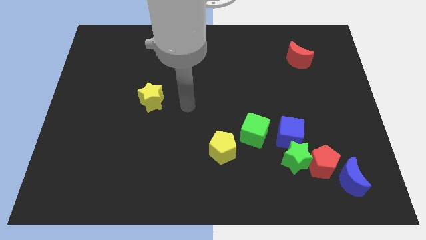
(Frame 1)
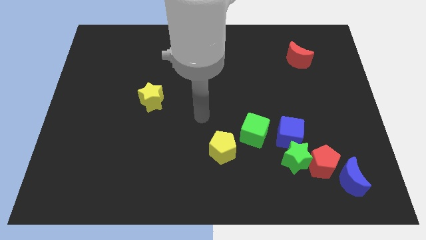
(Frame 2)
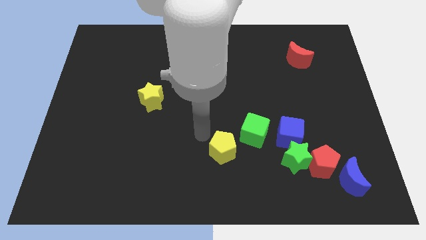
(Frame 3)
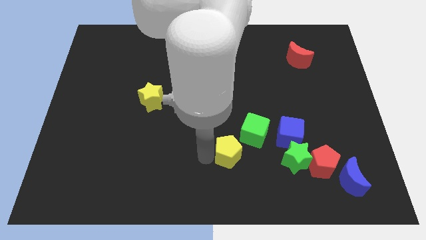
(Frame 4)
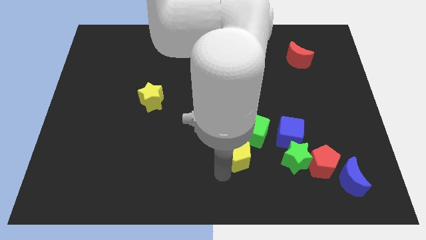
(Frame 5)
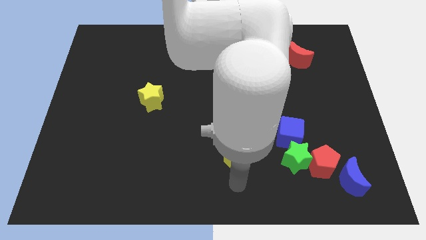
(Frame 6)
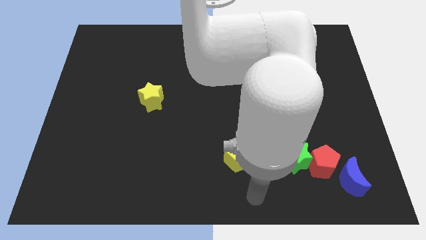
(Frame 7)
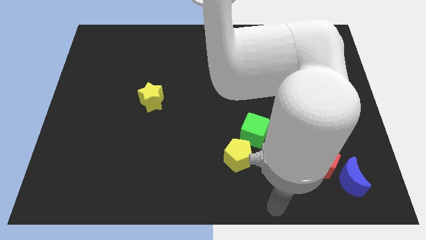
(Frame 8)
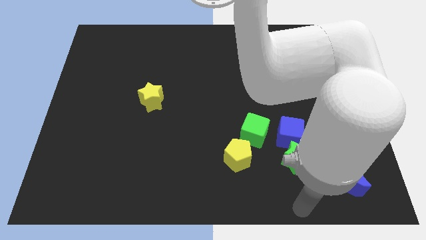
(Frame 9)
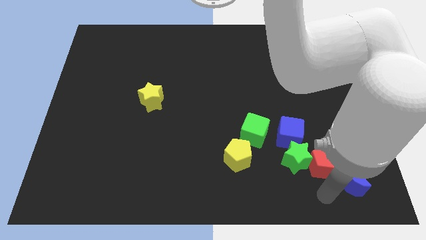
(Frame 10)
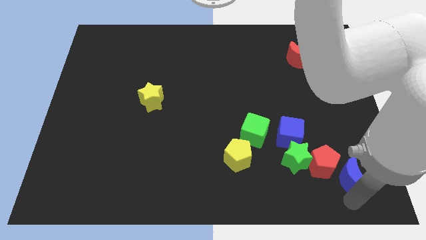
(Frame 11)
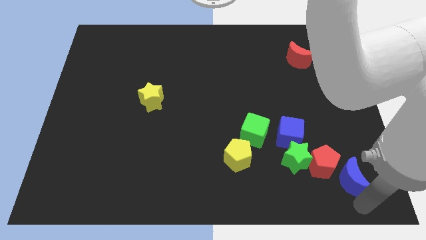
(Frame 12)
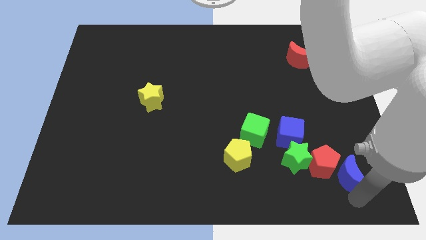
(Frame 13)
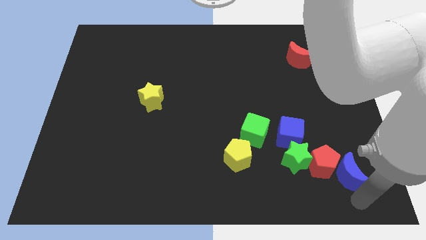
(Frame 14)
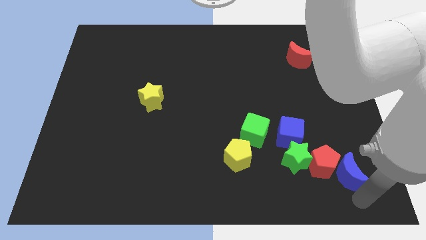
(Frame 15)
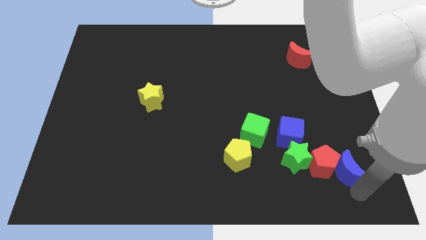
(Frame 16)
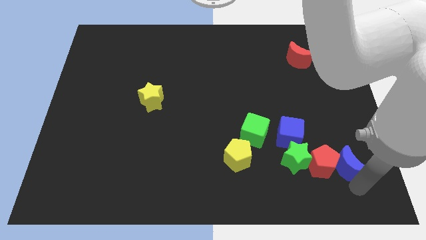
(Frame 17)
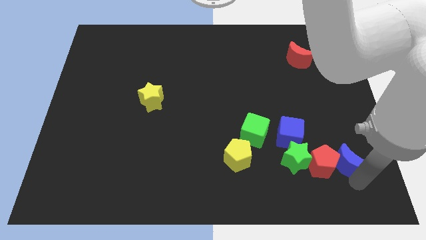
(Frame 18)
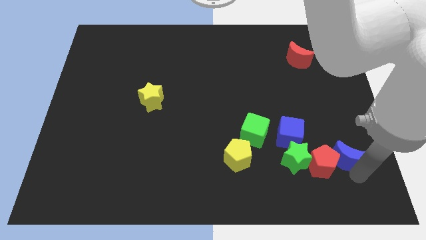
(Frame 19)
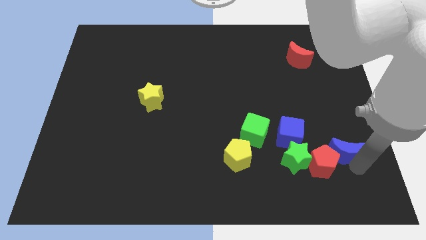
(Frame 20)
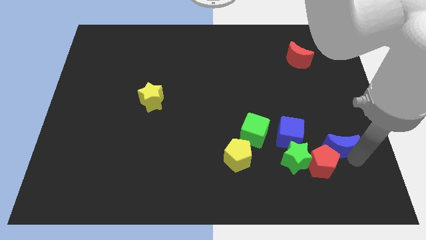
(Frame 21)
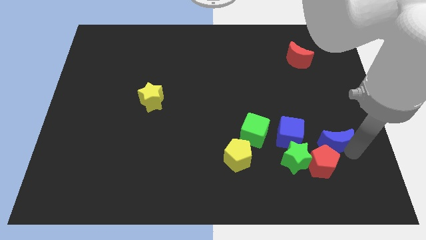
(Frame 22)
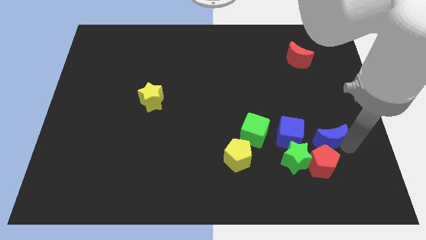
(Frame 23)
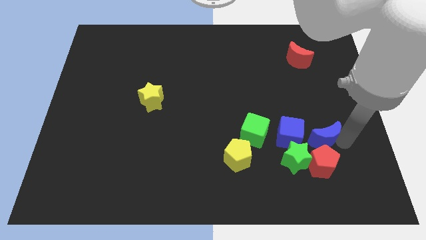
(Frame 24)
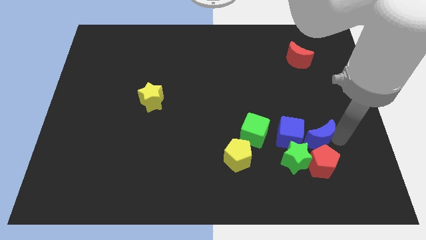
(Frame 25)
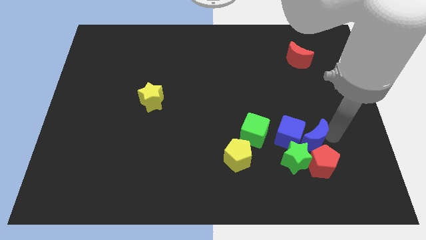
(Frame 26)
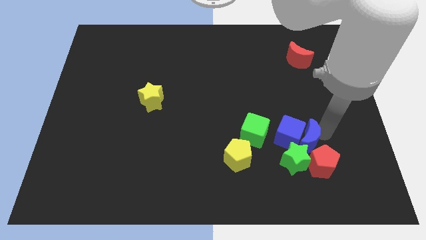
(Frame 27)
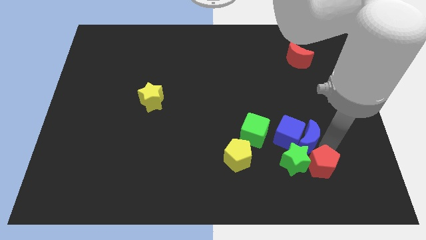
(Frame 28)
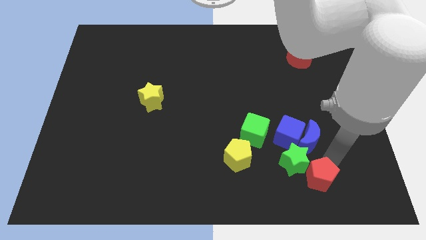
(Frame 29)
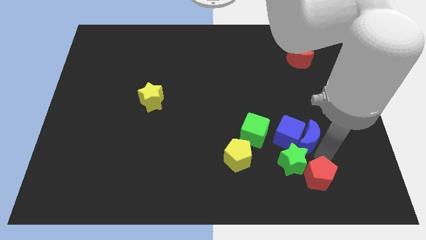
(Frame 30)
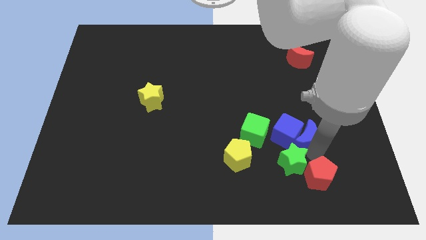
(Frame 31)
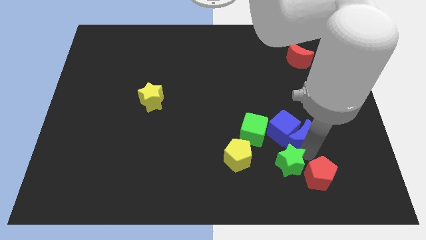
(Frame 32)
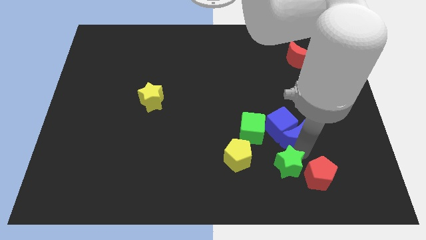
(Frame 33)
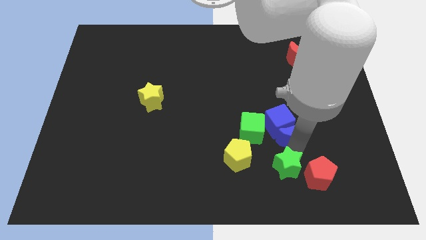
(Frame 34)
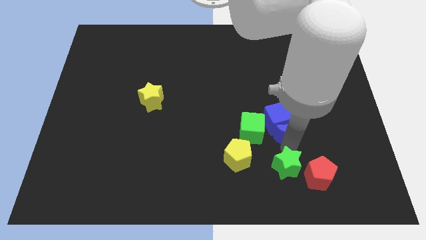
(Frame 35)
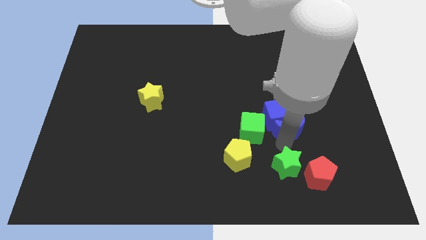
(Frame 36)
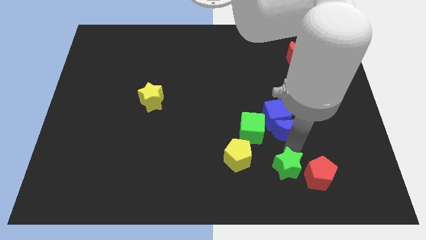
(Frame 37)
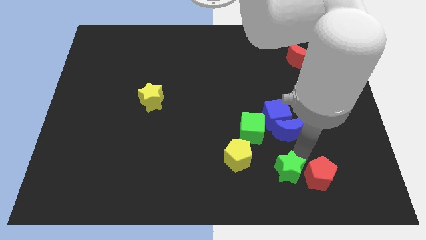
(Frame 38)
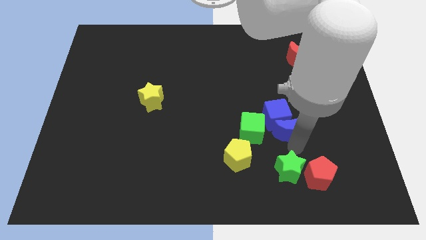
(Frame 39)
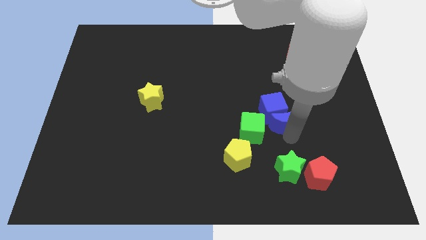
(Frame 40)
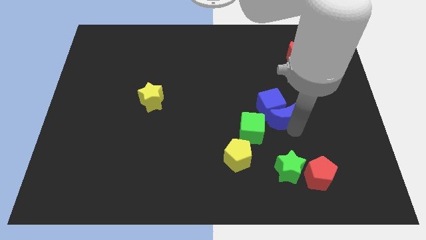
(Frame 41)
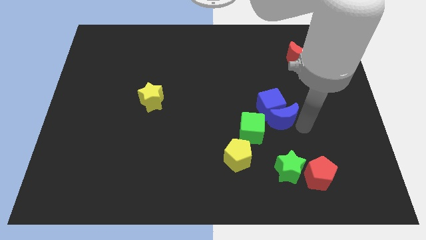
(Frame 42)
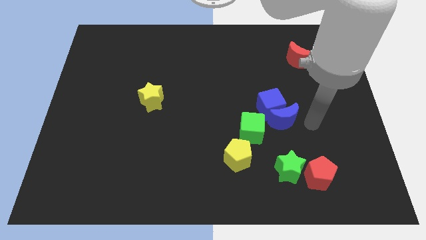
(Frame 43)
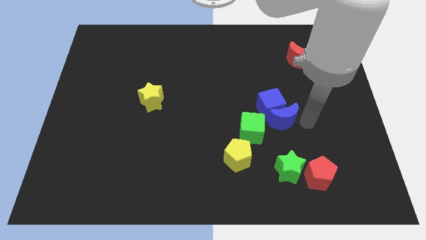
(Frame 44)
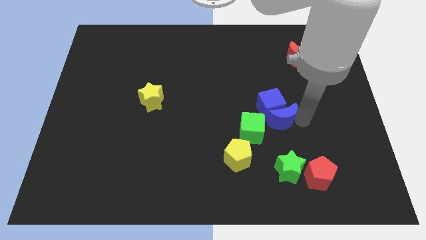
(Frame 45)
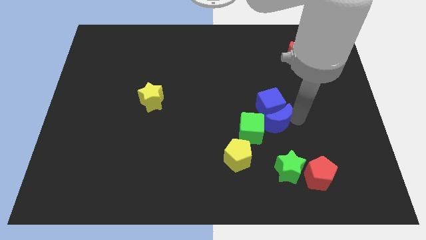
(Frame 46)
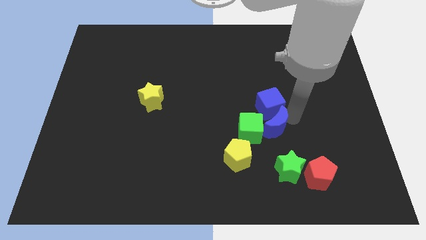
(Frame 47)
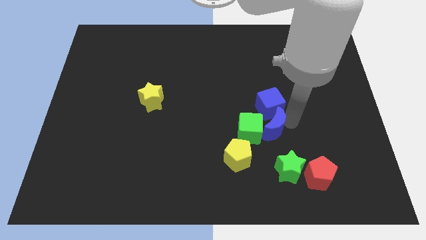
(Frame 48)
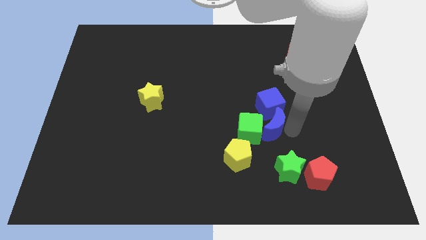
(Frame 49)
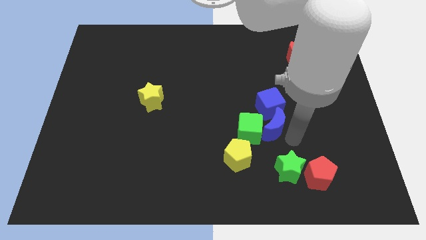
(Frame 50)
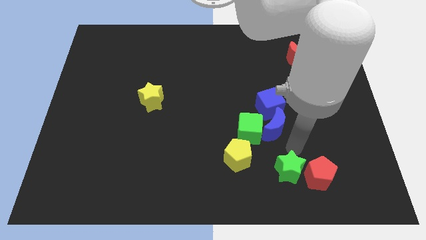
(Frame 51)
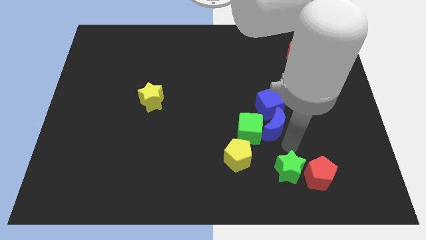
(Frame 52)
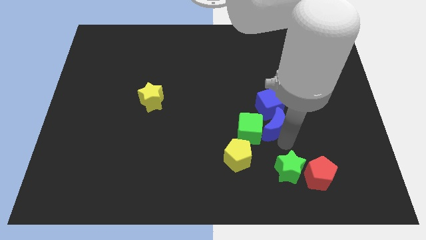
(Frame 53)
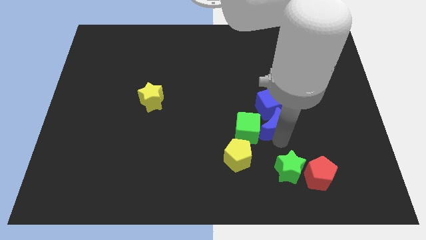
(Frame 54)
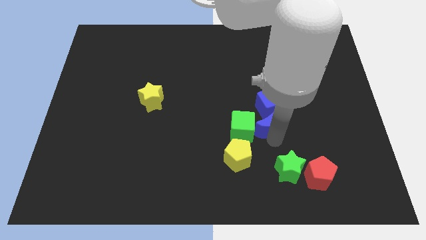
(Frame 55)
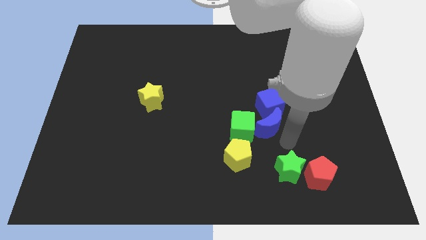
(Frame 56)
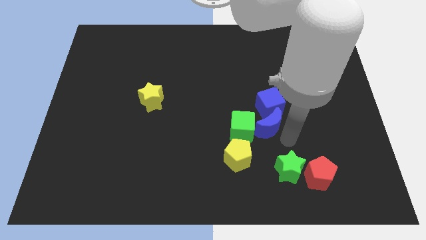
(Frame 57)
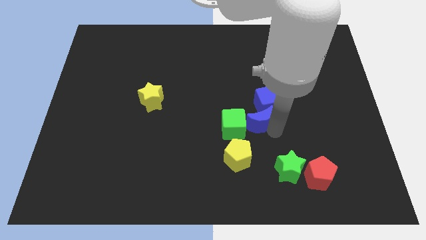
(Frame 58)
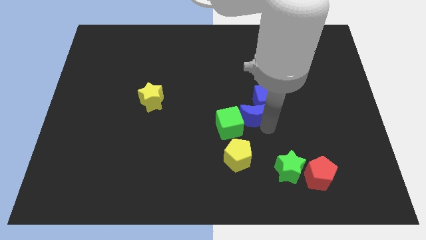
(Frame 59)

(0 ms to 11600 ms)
slide the blue moon to the center of the board
